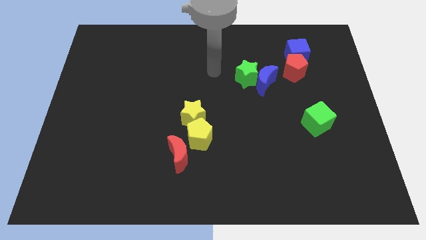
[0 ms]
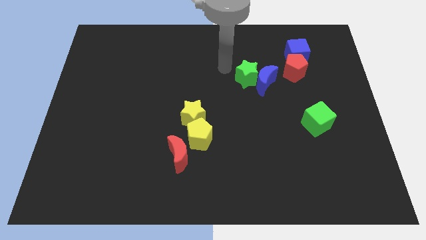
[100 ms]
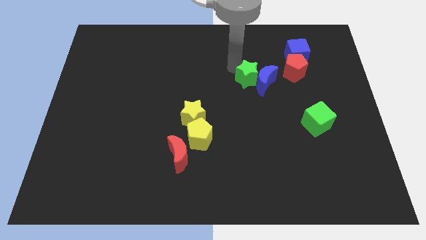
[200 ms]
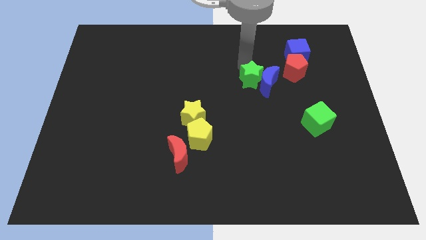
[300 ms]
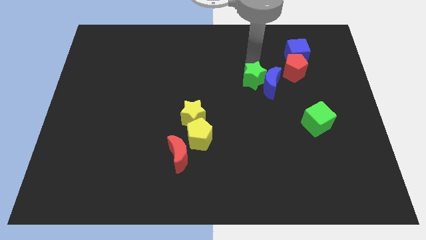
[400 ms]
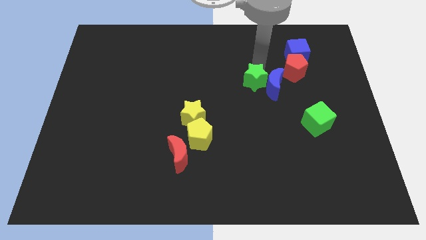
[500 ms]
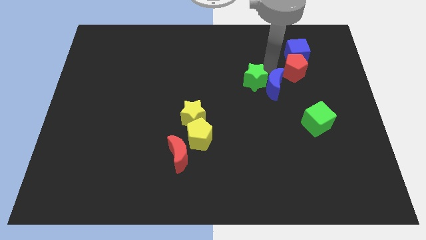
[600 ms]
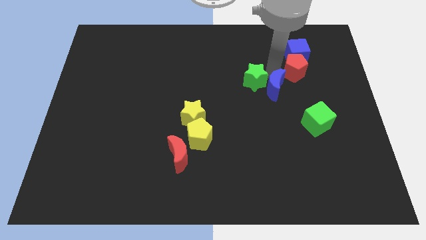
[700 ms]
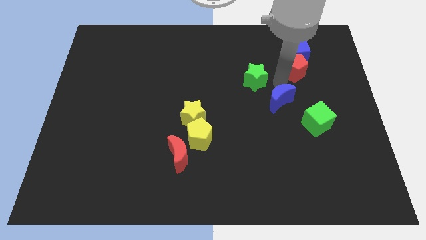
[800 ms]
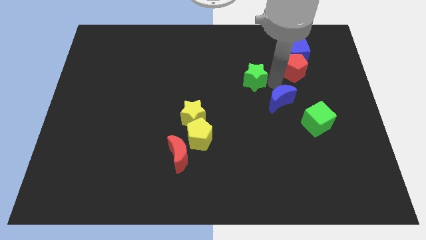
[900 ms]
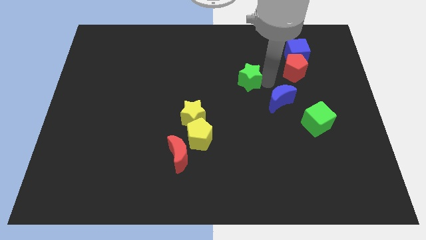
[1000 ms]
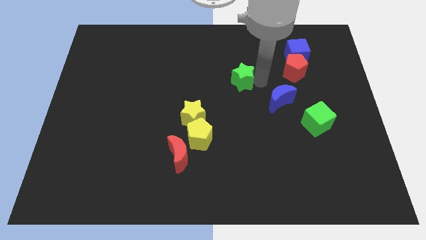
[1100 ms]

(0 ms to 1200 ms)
pull the green star apart from the blue moon

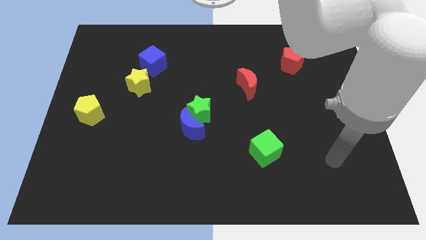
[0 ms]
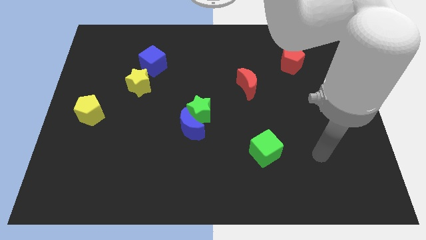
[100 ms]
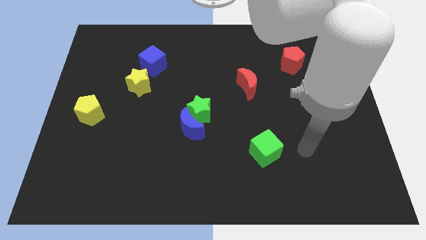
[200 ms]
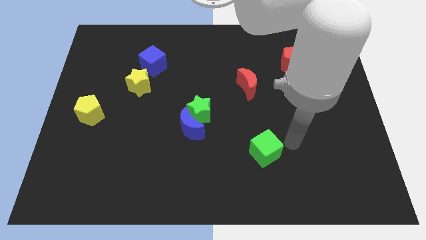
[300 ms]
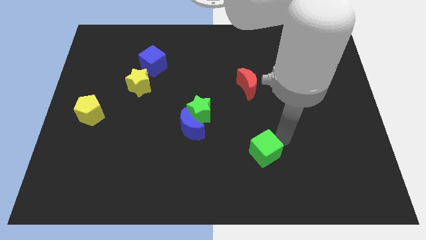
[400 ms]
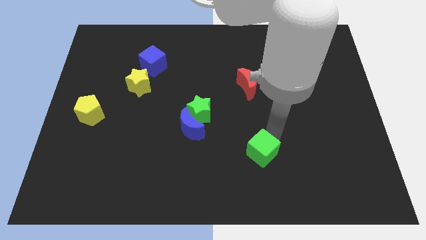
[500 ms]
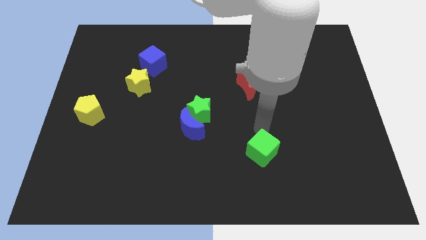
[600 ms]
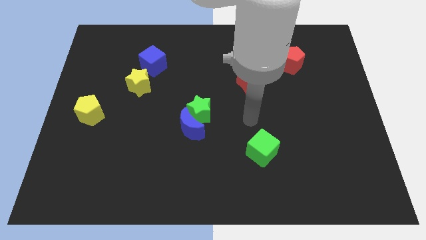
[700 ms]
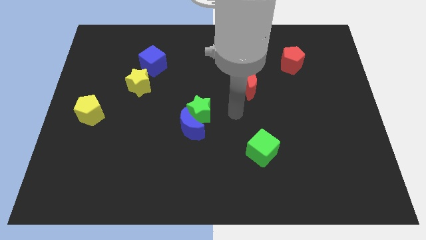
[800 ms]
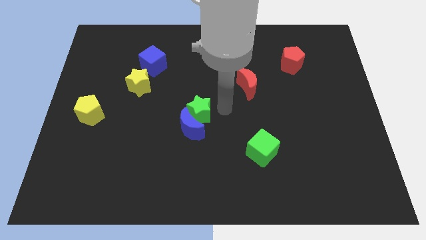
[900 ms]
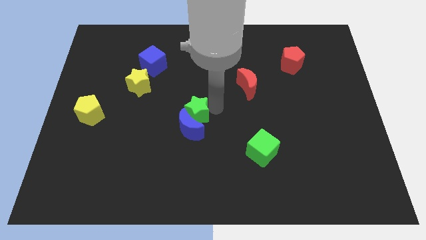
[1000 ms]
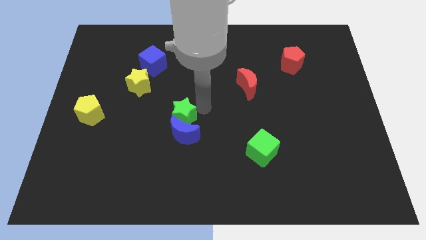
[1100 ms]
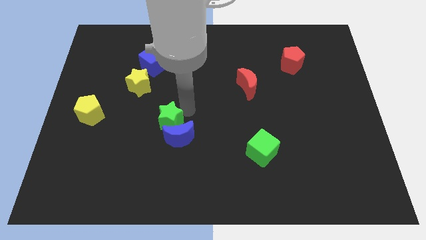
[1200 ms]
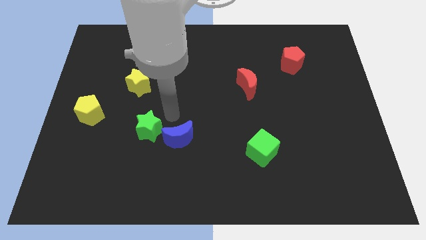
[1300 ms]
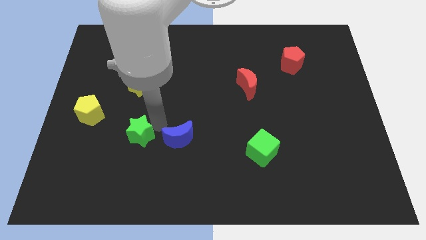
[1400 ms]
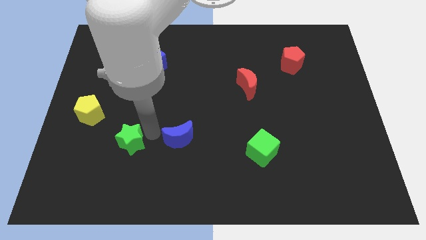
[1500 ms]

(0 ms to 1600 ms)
separate the blue moon from the green star

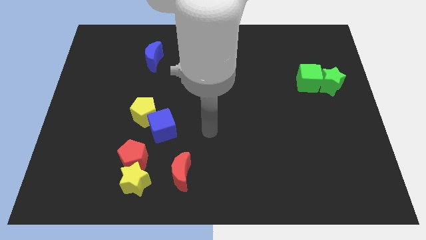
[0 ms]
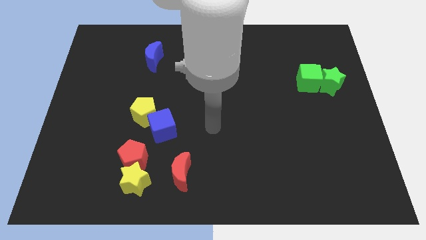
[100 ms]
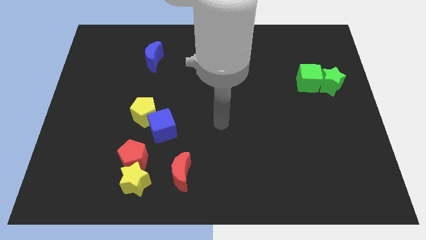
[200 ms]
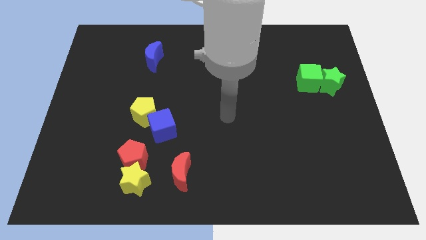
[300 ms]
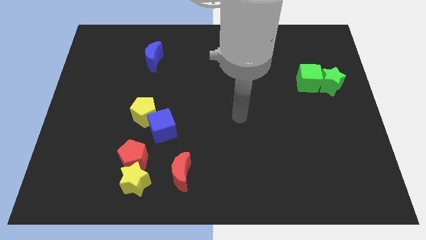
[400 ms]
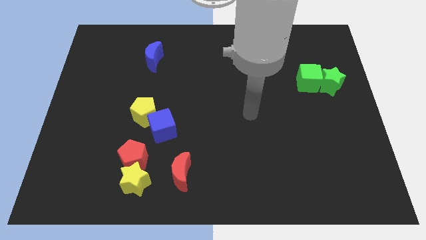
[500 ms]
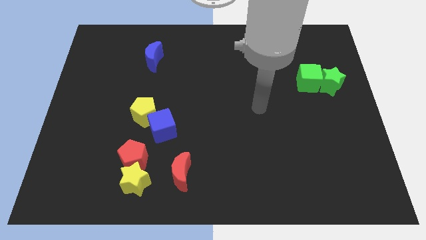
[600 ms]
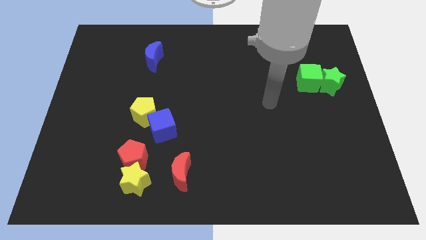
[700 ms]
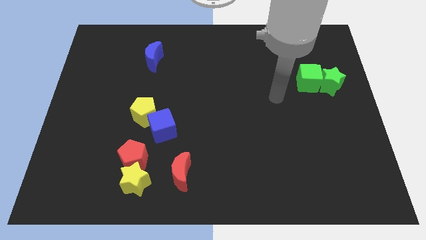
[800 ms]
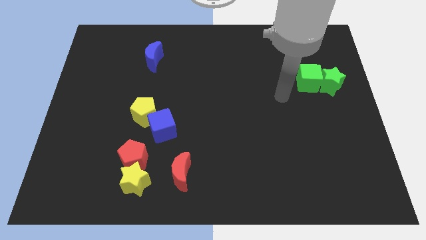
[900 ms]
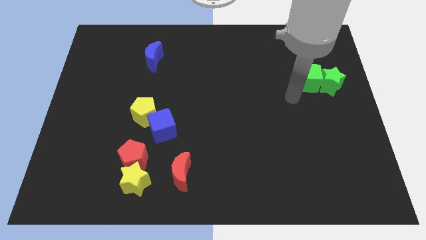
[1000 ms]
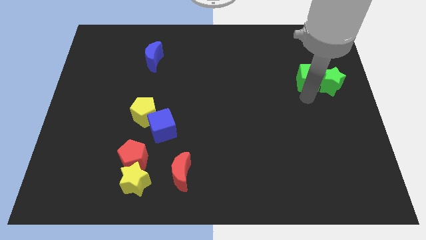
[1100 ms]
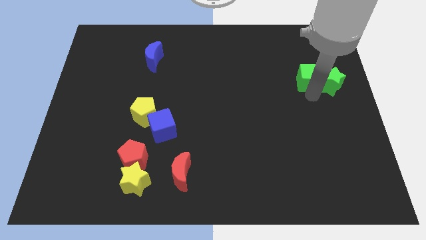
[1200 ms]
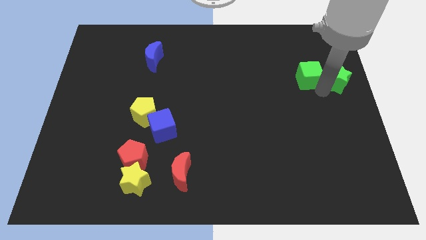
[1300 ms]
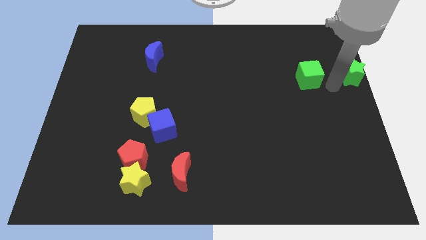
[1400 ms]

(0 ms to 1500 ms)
move the green cube away from the green star

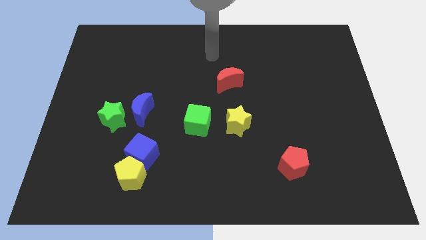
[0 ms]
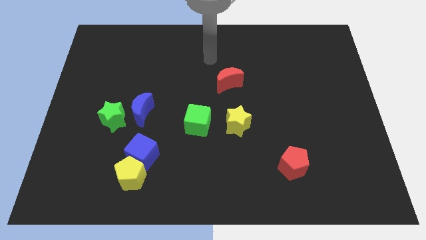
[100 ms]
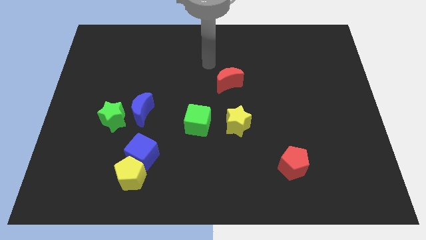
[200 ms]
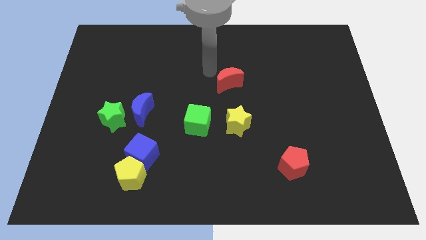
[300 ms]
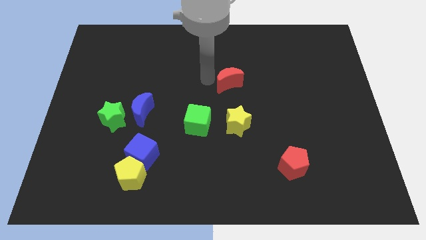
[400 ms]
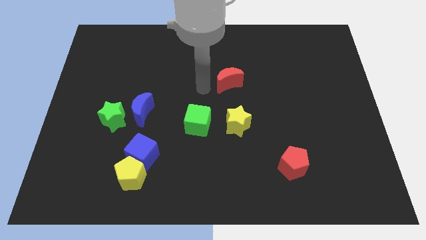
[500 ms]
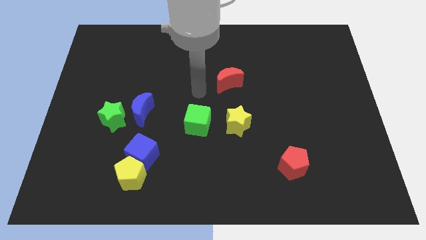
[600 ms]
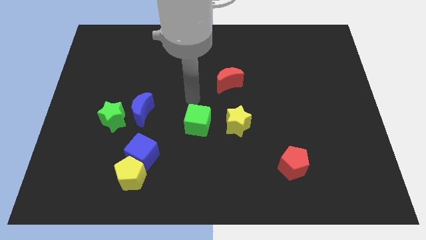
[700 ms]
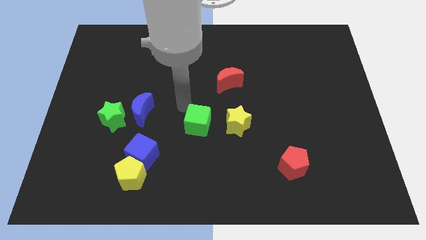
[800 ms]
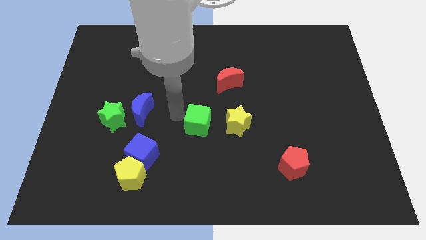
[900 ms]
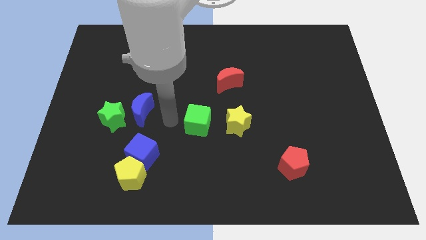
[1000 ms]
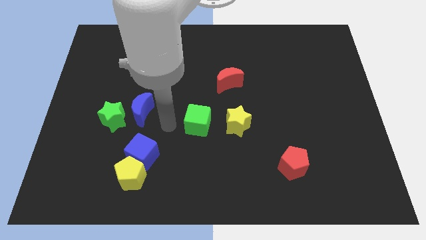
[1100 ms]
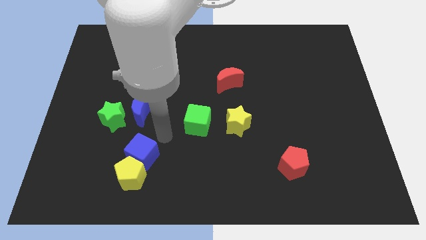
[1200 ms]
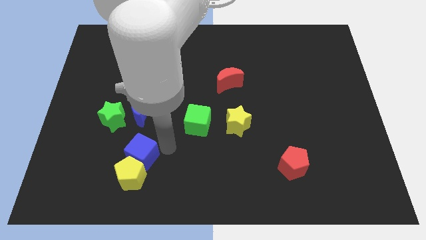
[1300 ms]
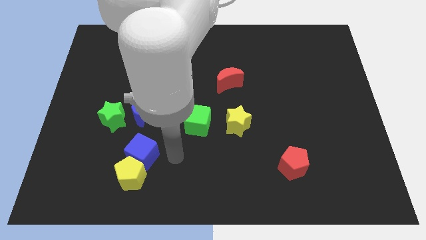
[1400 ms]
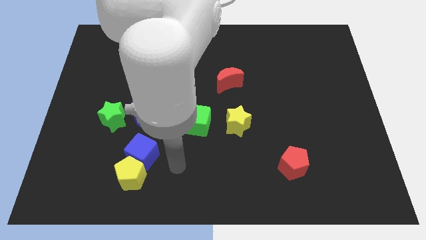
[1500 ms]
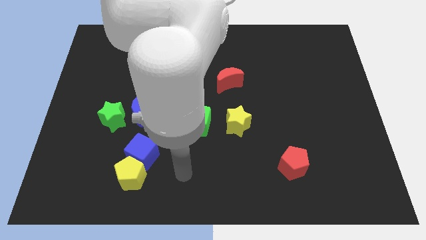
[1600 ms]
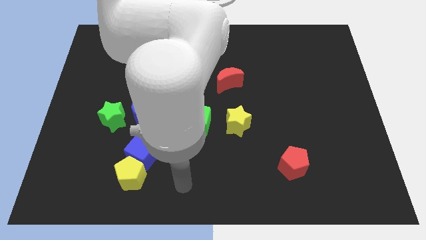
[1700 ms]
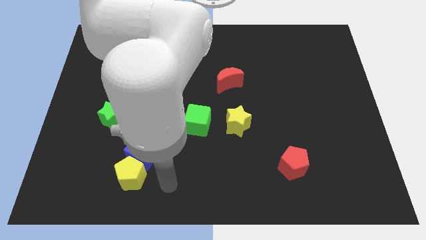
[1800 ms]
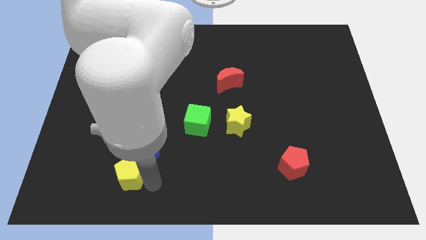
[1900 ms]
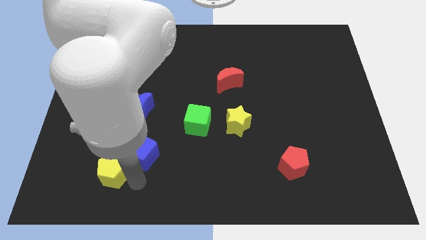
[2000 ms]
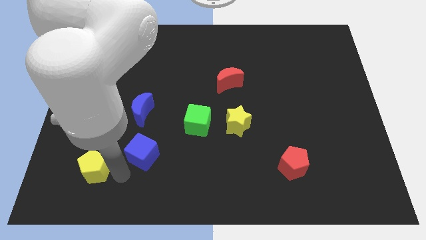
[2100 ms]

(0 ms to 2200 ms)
move the blue cube away from the yellow pentagon

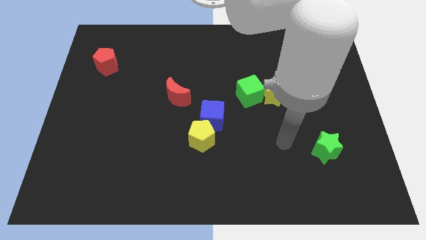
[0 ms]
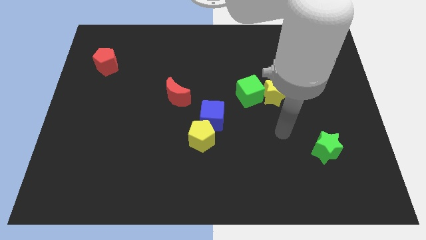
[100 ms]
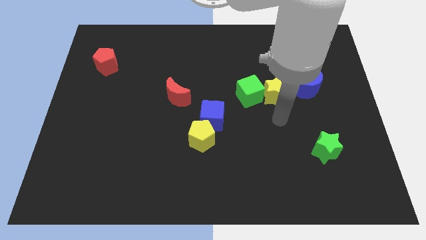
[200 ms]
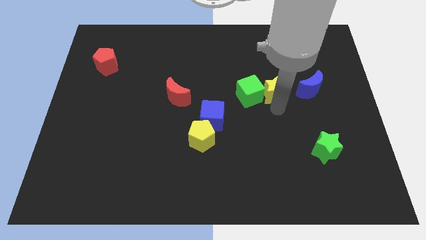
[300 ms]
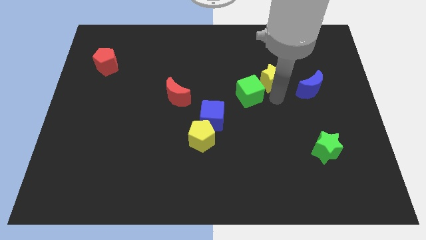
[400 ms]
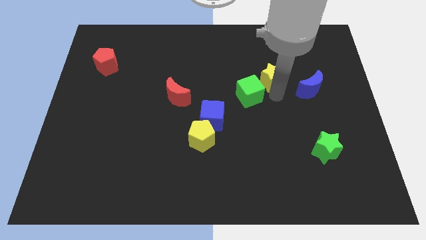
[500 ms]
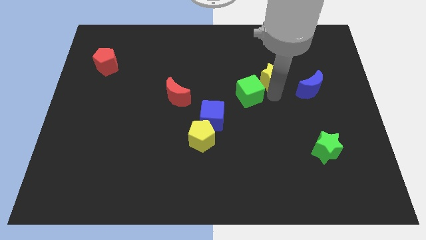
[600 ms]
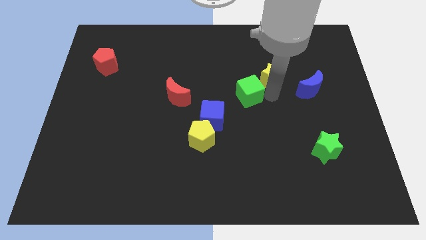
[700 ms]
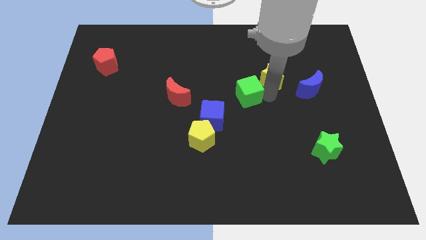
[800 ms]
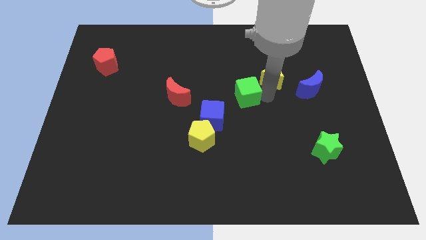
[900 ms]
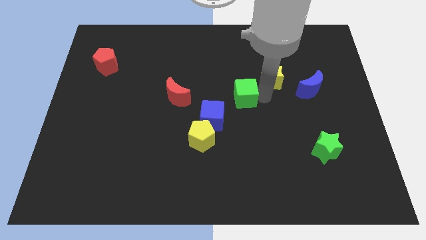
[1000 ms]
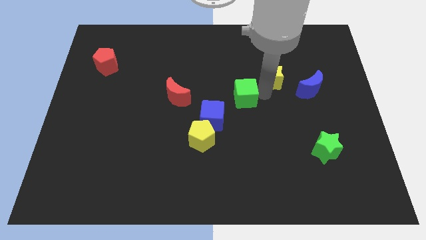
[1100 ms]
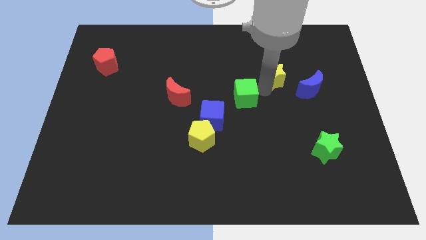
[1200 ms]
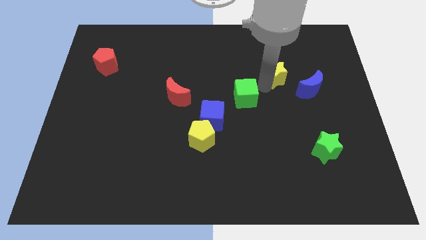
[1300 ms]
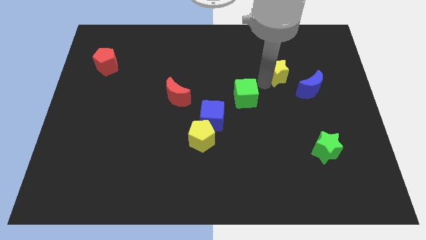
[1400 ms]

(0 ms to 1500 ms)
pull the green cube apart from the yellow star

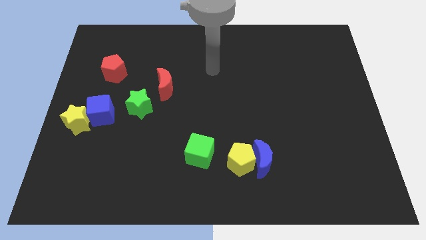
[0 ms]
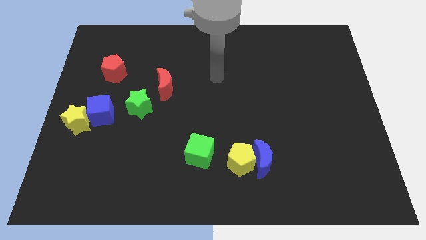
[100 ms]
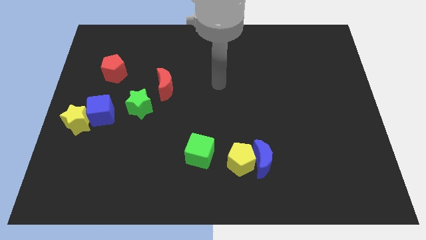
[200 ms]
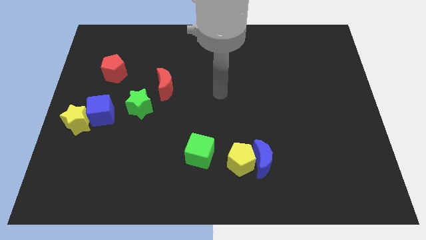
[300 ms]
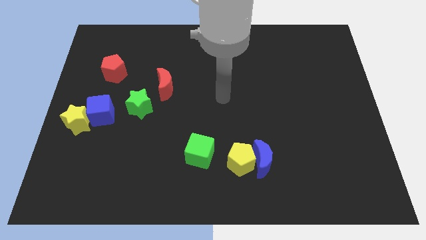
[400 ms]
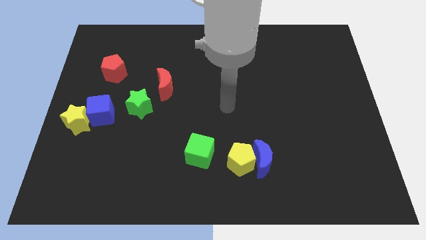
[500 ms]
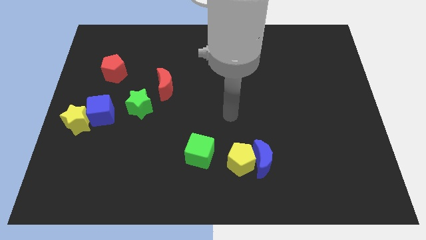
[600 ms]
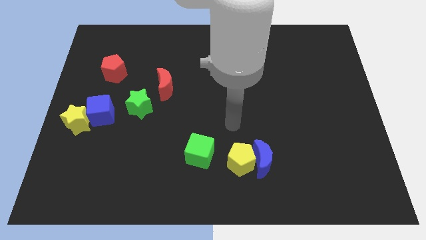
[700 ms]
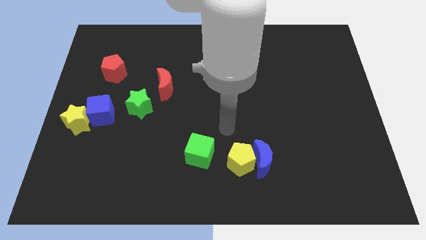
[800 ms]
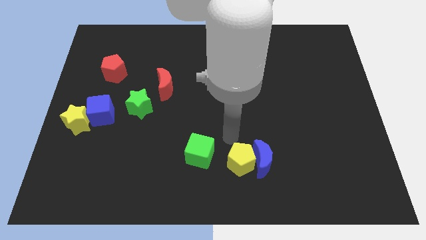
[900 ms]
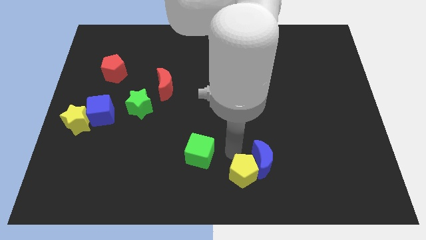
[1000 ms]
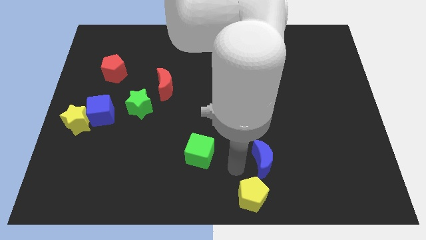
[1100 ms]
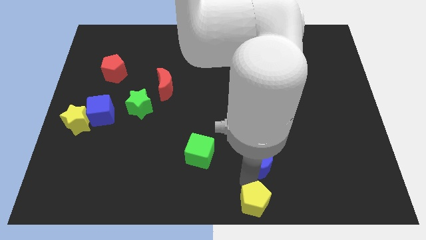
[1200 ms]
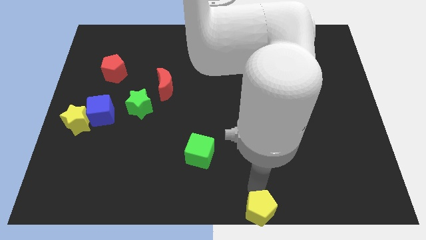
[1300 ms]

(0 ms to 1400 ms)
separate the blue moon from the yellow pentagon

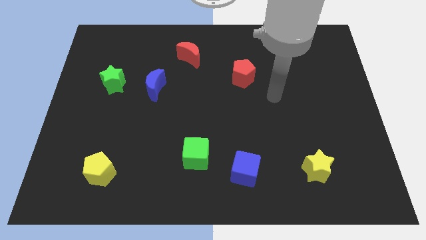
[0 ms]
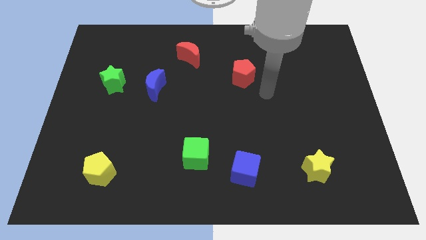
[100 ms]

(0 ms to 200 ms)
pull the blue moon apart from the green star
